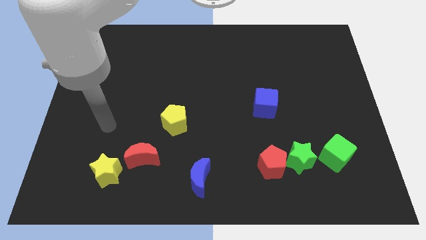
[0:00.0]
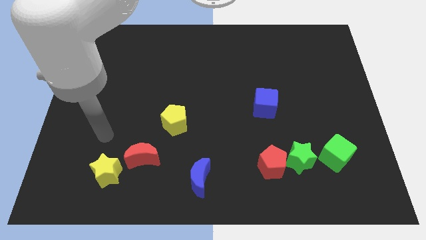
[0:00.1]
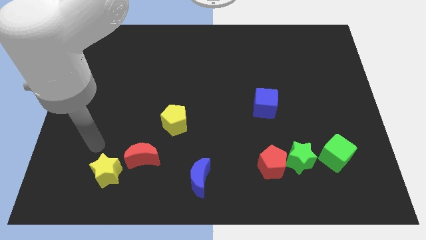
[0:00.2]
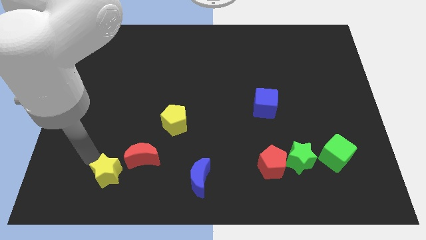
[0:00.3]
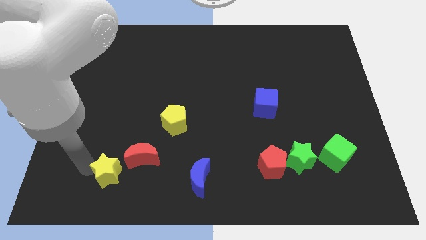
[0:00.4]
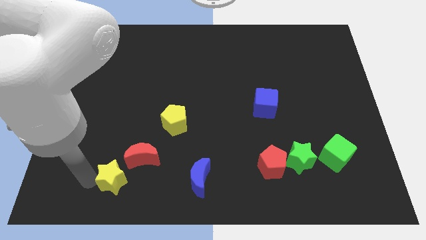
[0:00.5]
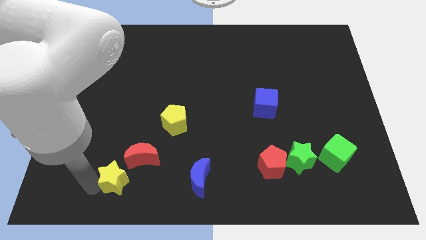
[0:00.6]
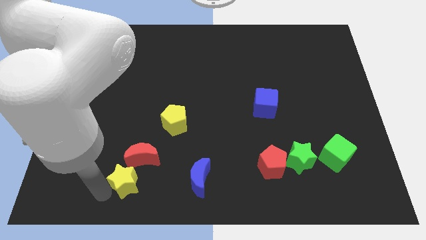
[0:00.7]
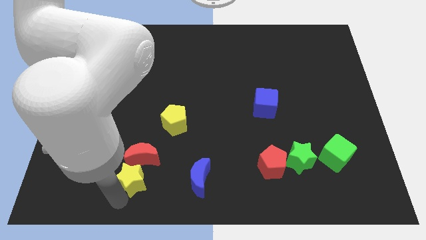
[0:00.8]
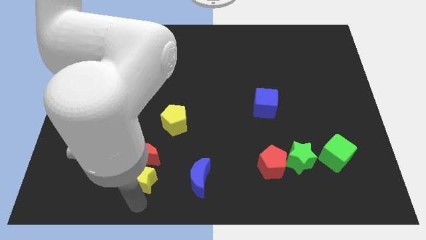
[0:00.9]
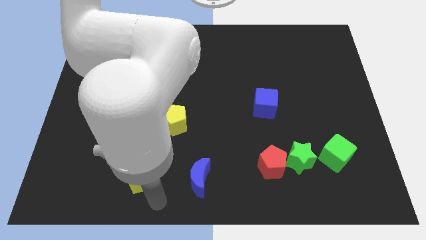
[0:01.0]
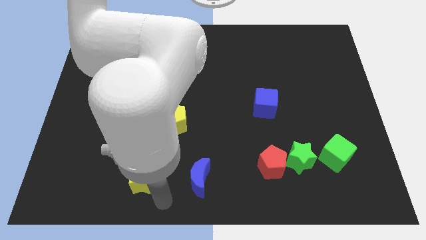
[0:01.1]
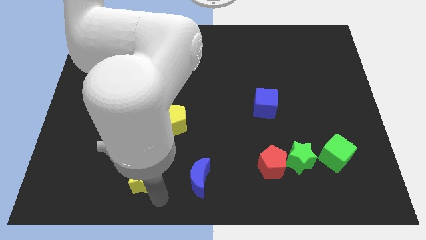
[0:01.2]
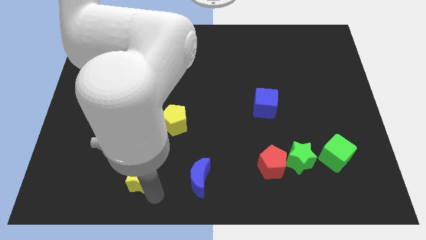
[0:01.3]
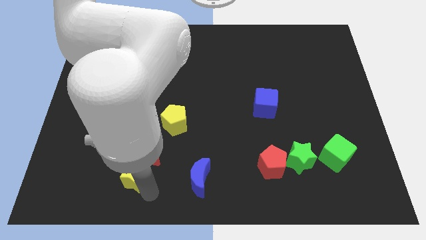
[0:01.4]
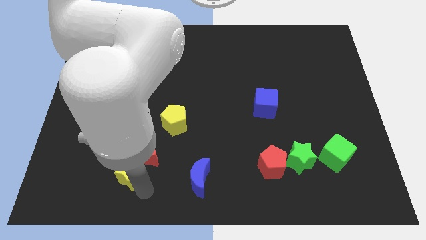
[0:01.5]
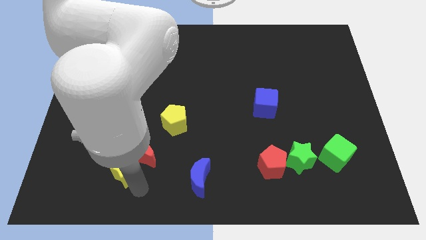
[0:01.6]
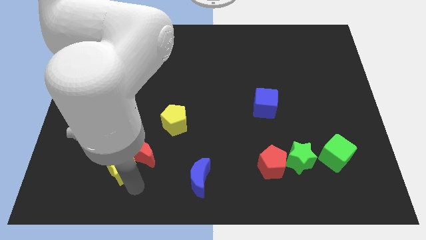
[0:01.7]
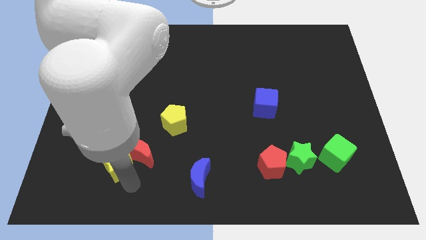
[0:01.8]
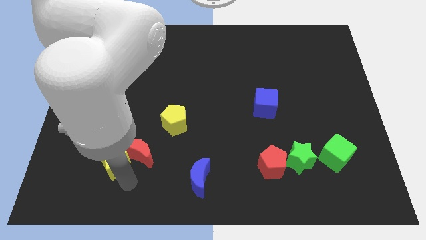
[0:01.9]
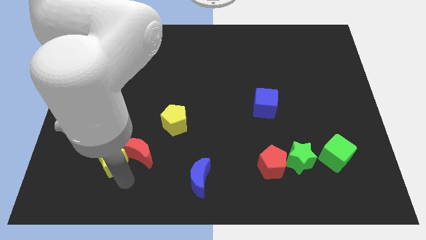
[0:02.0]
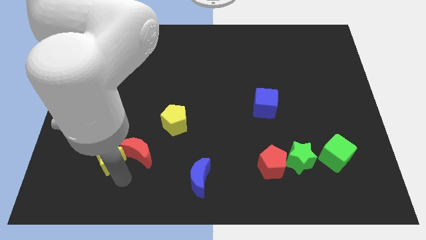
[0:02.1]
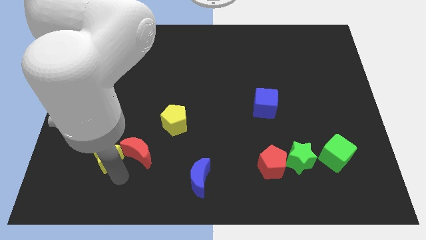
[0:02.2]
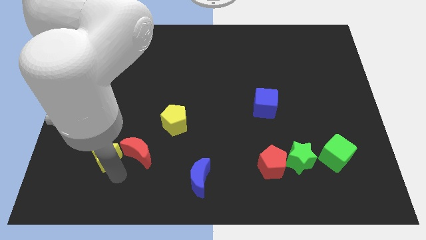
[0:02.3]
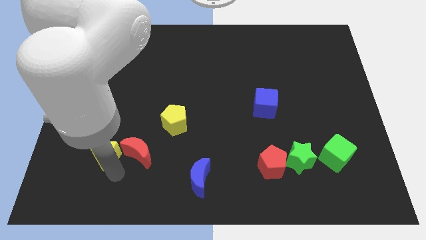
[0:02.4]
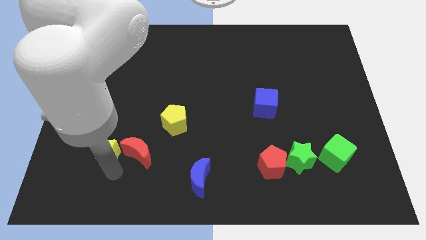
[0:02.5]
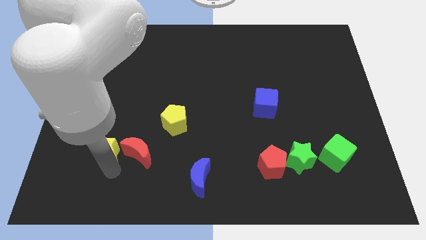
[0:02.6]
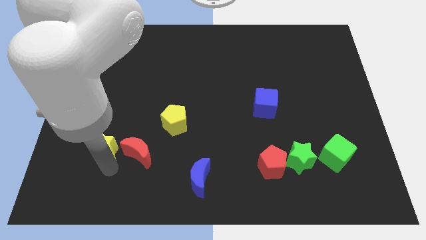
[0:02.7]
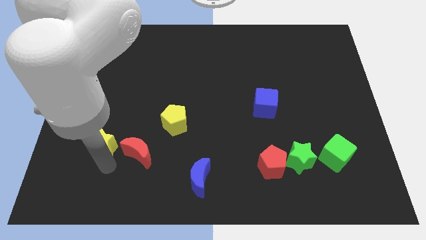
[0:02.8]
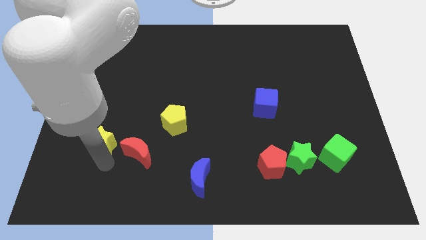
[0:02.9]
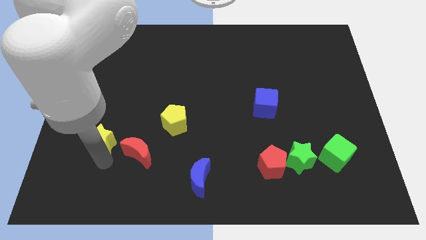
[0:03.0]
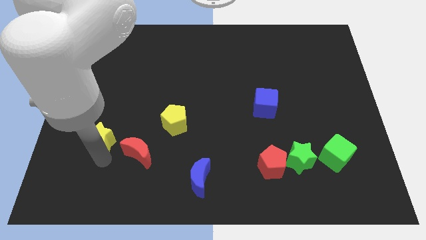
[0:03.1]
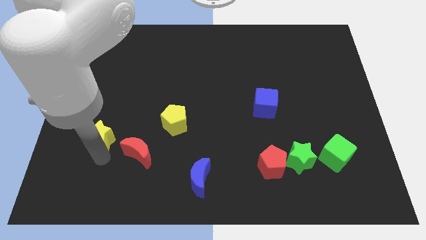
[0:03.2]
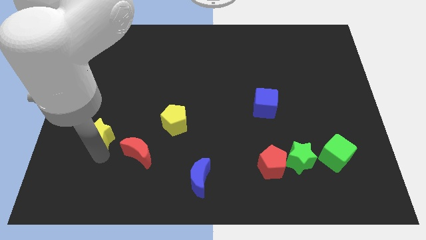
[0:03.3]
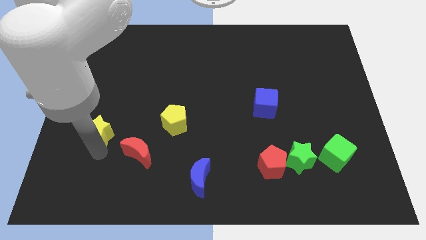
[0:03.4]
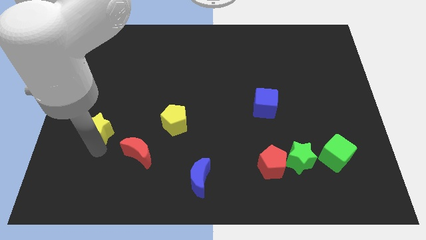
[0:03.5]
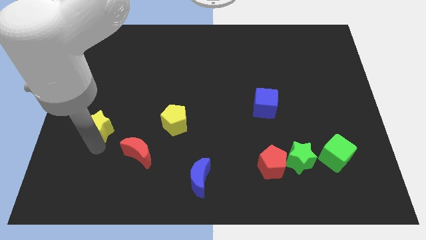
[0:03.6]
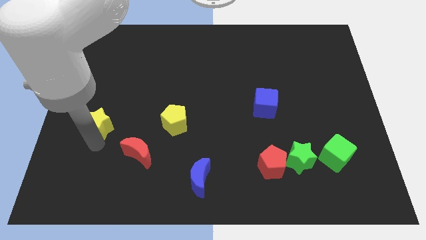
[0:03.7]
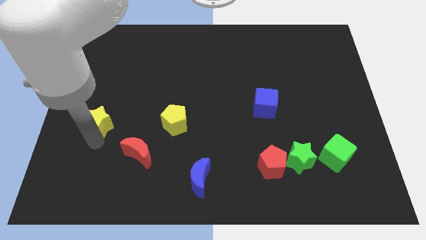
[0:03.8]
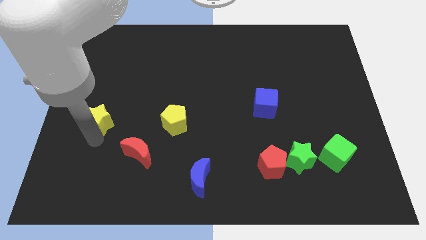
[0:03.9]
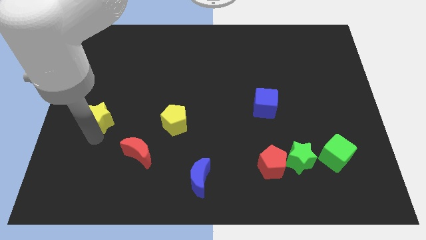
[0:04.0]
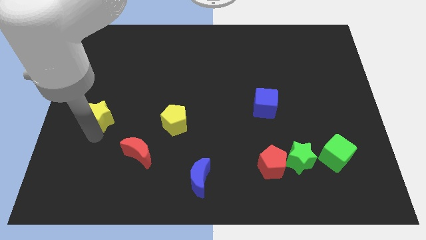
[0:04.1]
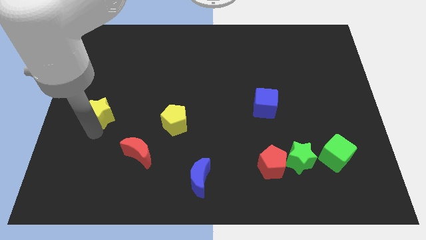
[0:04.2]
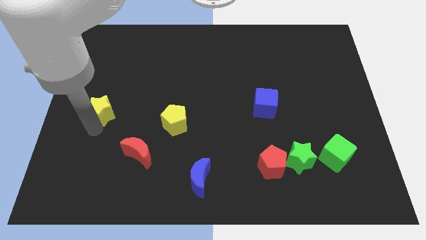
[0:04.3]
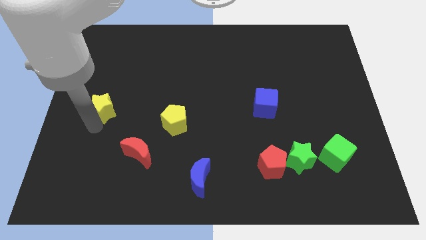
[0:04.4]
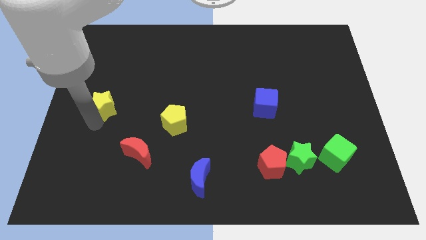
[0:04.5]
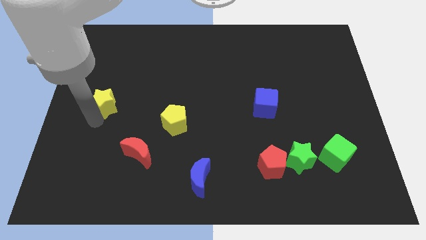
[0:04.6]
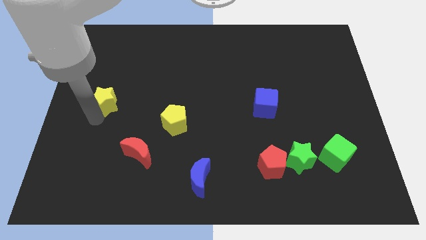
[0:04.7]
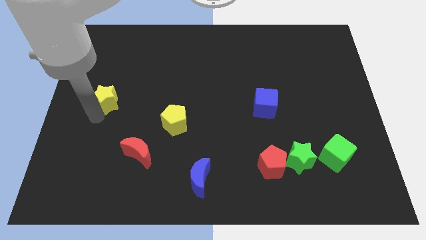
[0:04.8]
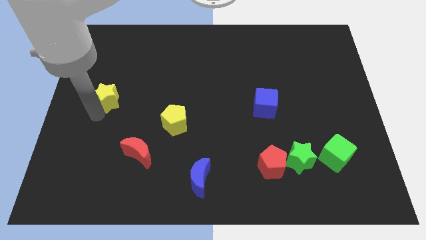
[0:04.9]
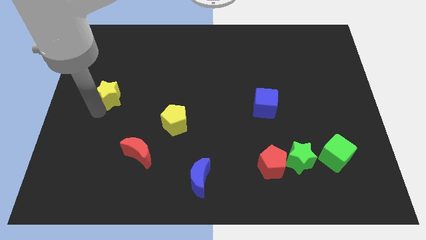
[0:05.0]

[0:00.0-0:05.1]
slide the yellow star upwards

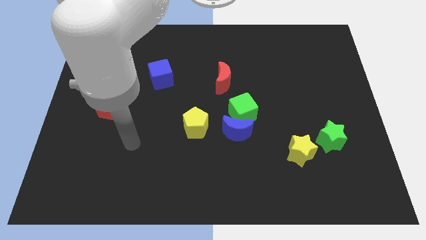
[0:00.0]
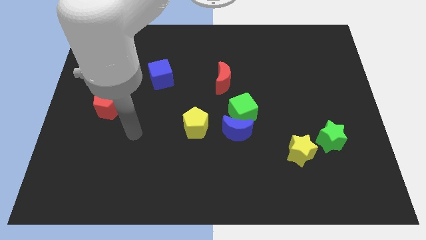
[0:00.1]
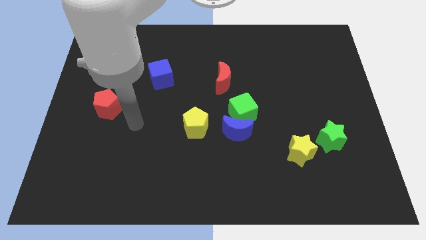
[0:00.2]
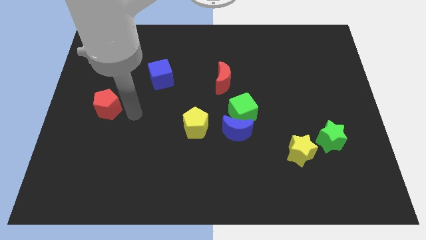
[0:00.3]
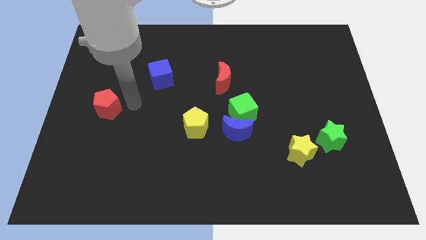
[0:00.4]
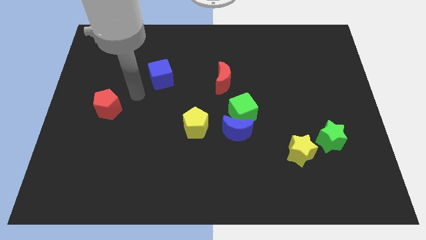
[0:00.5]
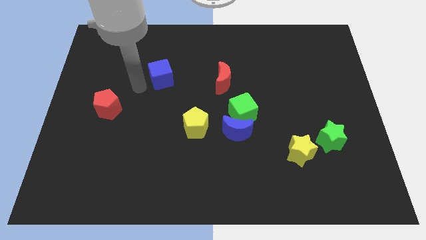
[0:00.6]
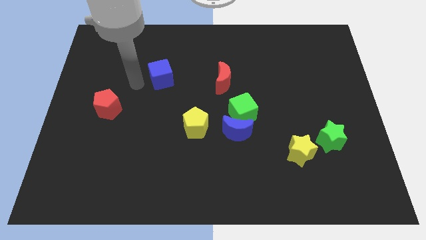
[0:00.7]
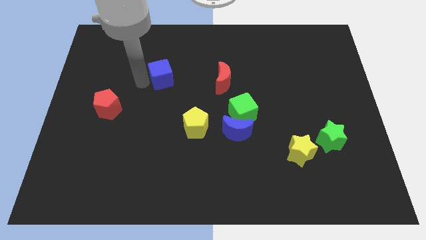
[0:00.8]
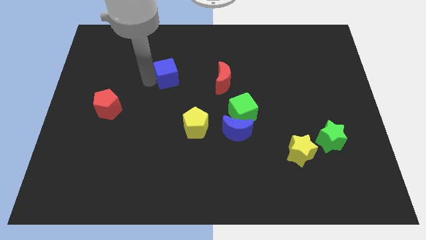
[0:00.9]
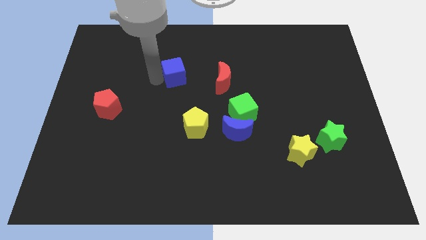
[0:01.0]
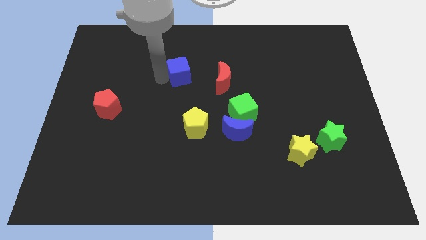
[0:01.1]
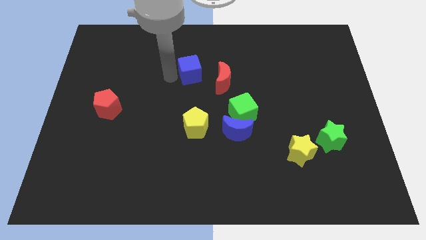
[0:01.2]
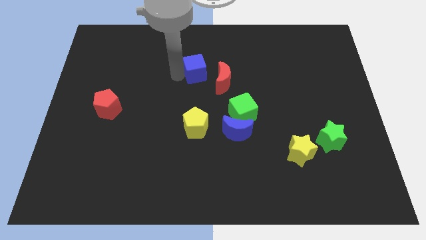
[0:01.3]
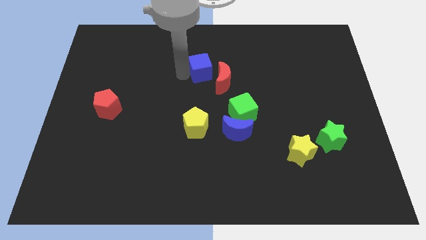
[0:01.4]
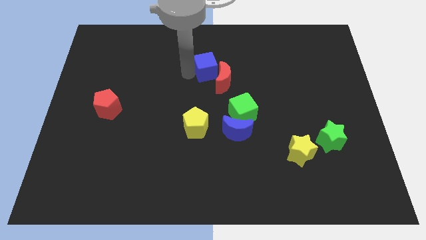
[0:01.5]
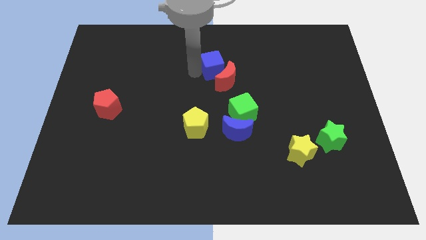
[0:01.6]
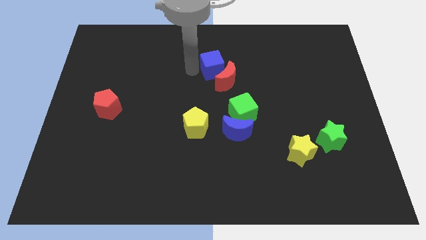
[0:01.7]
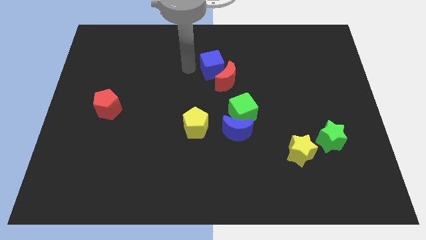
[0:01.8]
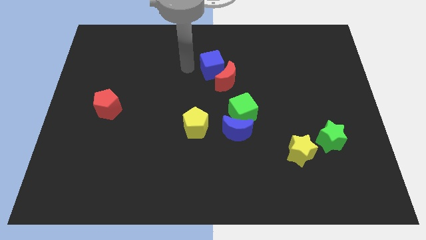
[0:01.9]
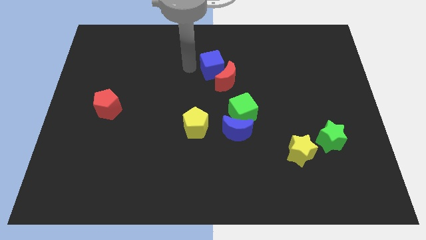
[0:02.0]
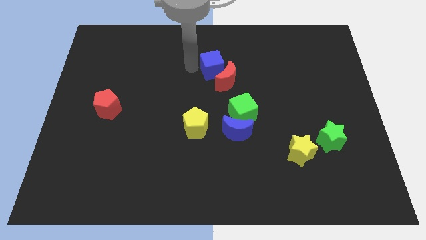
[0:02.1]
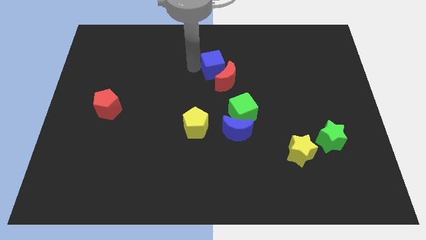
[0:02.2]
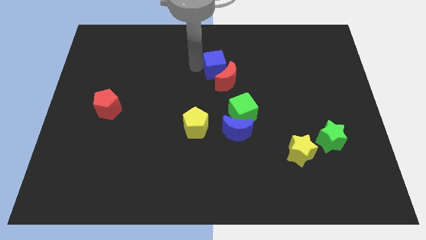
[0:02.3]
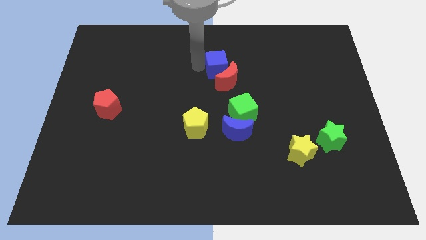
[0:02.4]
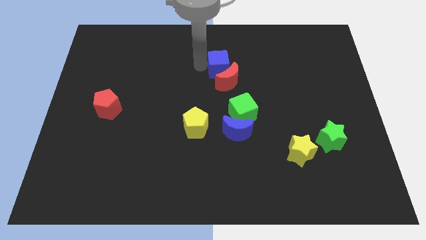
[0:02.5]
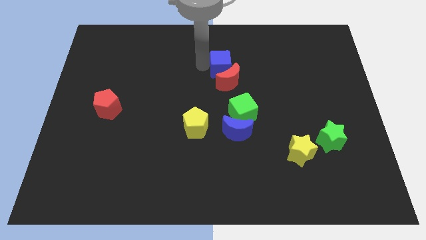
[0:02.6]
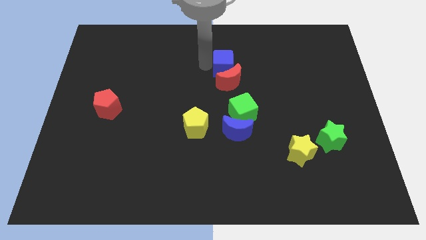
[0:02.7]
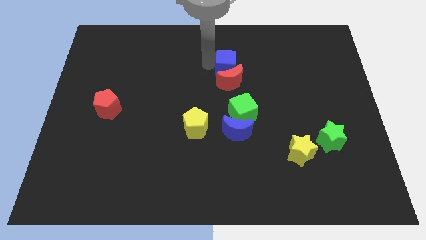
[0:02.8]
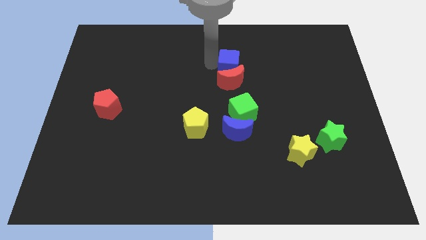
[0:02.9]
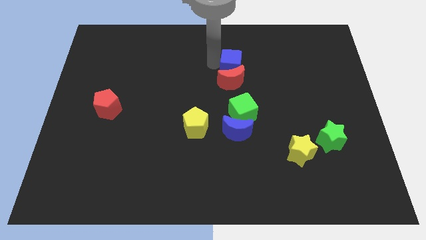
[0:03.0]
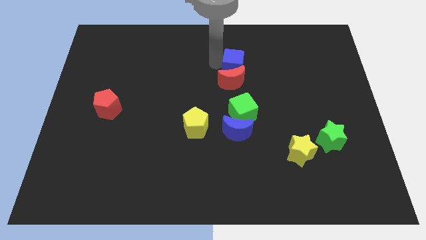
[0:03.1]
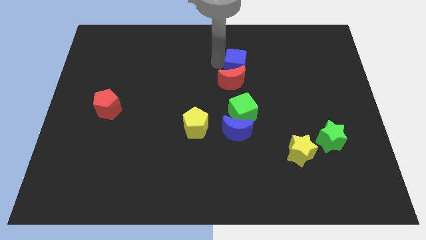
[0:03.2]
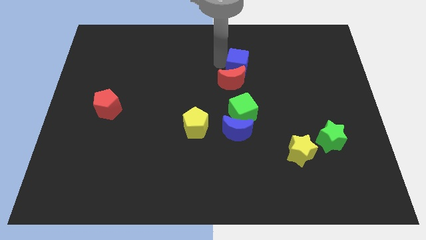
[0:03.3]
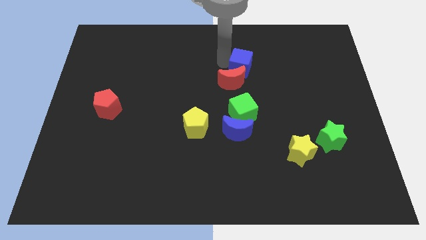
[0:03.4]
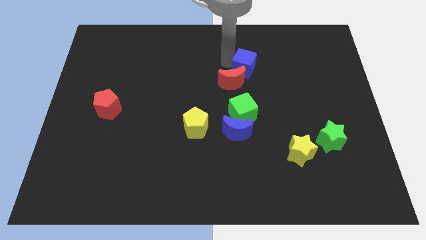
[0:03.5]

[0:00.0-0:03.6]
slide the blue cube right
